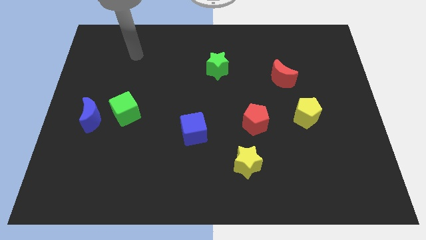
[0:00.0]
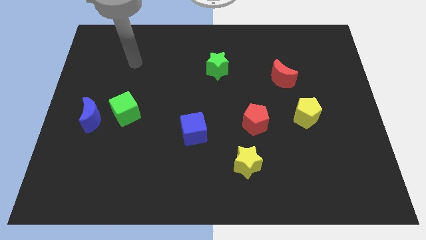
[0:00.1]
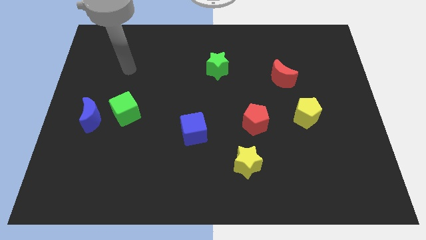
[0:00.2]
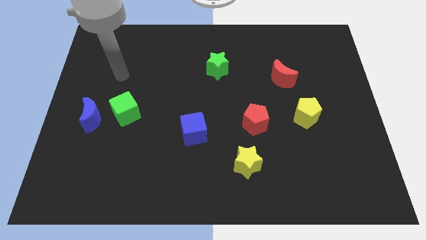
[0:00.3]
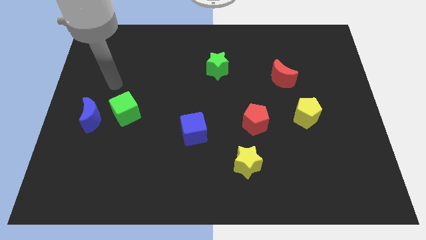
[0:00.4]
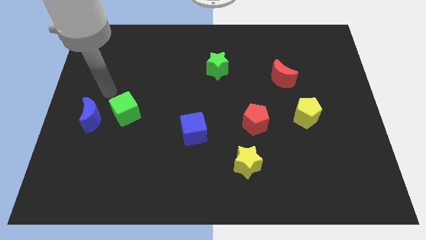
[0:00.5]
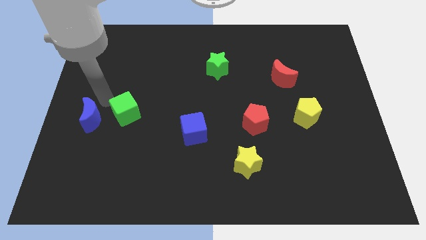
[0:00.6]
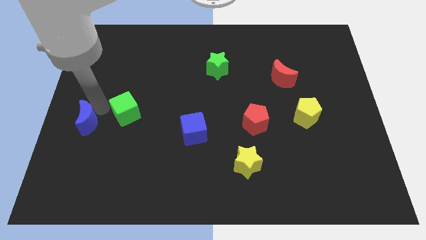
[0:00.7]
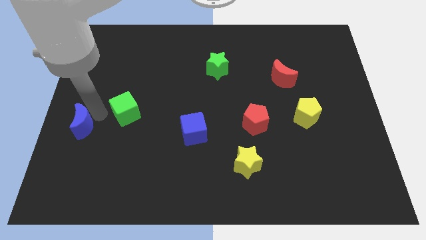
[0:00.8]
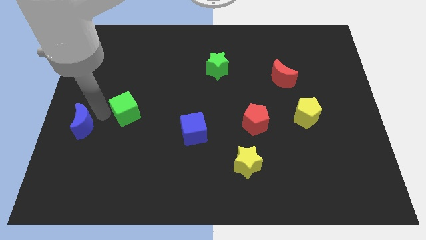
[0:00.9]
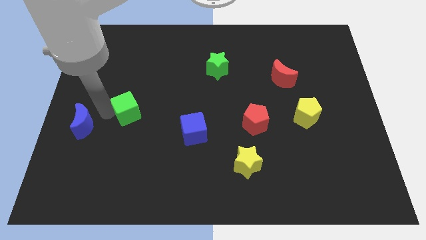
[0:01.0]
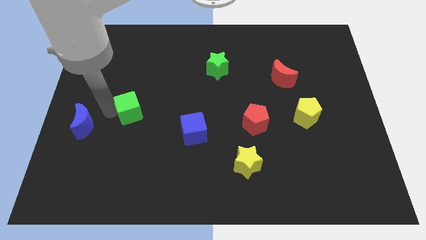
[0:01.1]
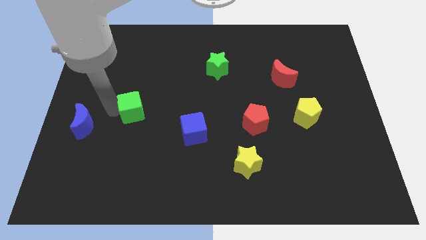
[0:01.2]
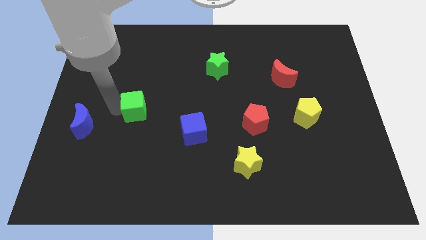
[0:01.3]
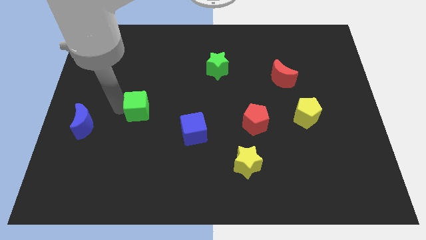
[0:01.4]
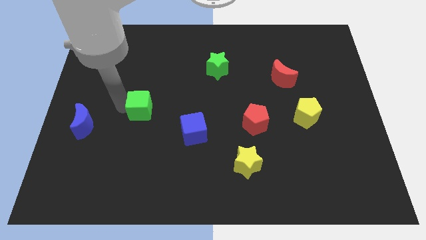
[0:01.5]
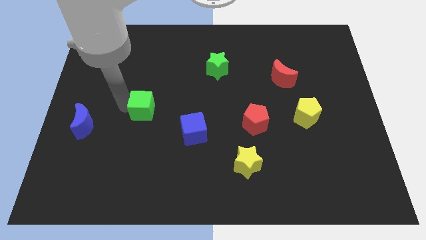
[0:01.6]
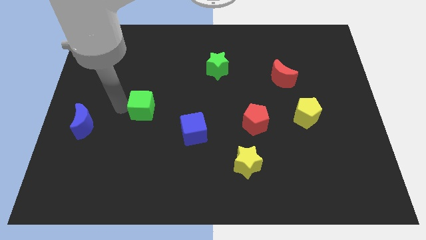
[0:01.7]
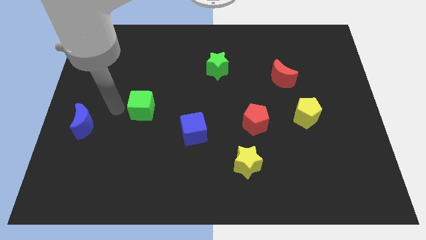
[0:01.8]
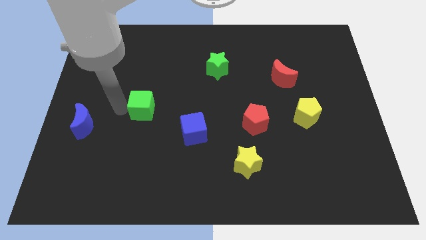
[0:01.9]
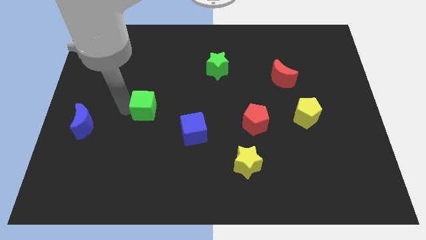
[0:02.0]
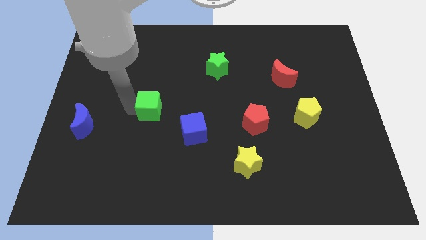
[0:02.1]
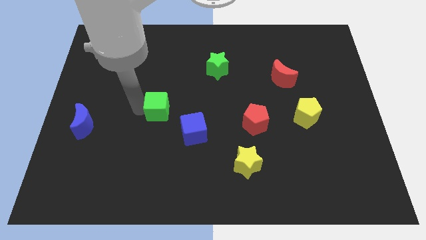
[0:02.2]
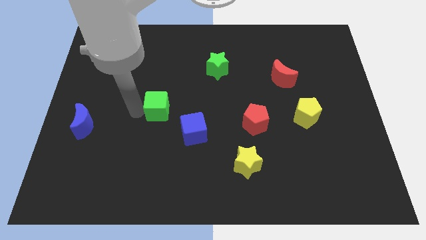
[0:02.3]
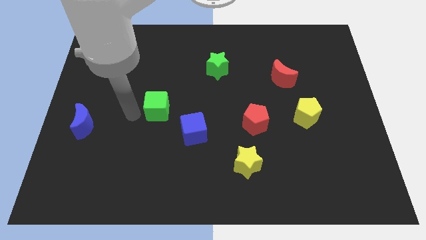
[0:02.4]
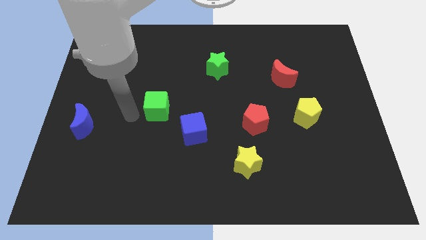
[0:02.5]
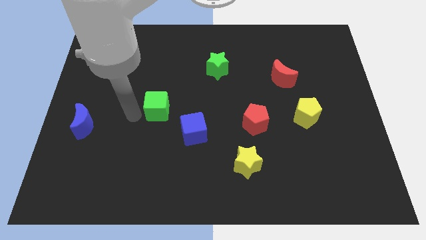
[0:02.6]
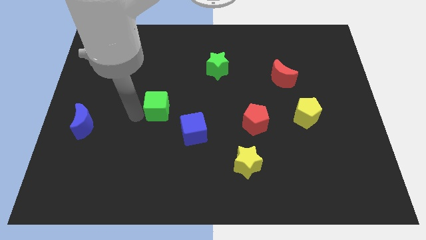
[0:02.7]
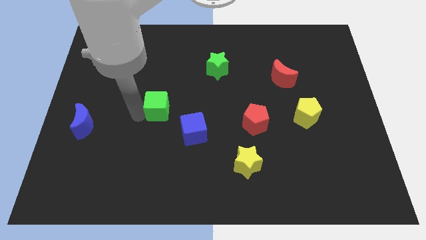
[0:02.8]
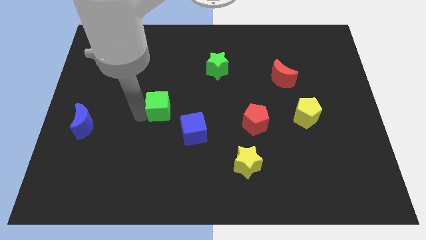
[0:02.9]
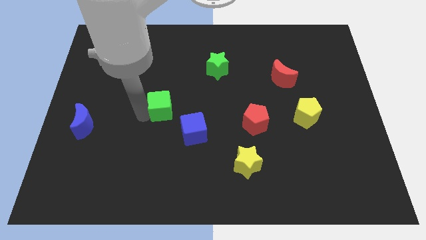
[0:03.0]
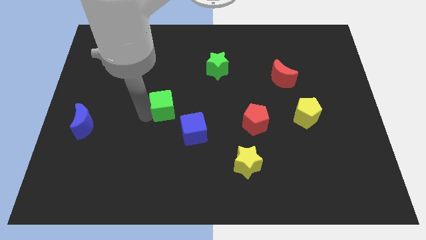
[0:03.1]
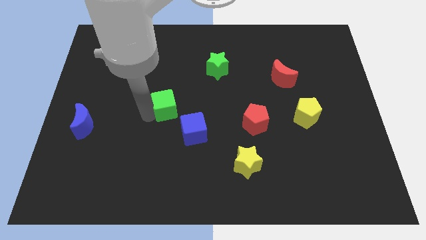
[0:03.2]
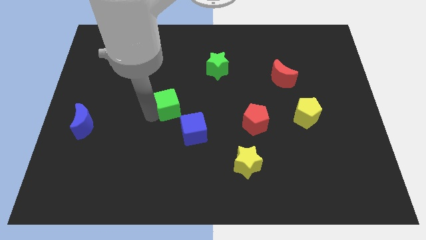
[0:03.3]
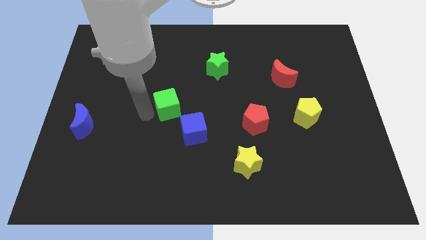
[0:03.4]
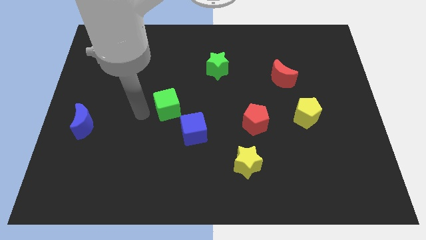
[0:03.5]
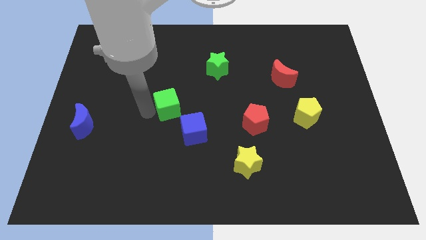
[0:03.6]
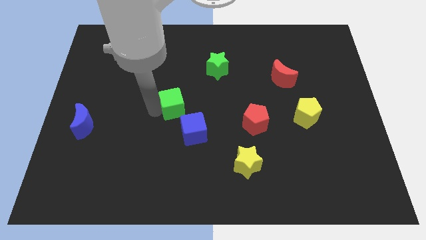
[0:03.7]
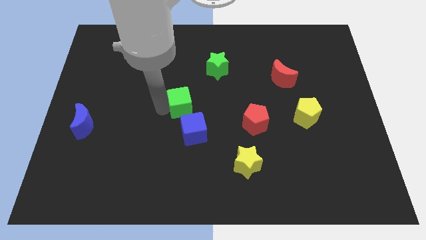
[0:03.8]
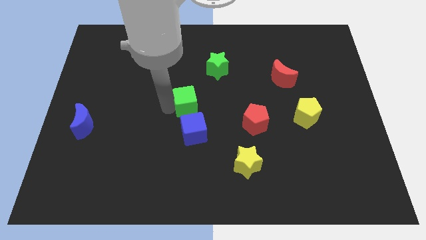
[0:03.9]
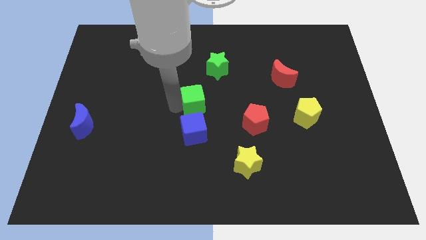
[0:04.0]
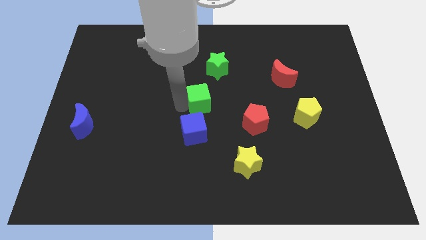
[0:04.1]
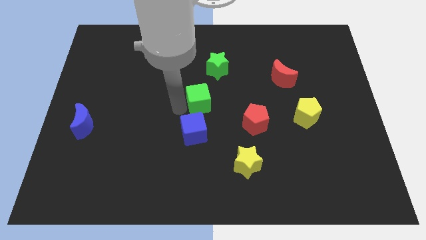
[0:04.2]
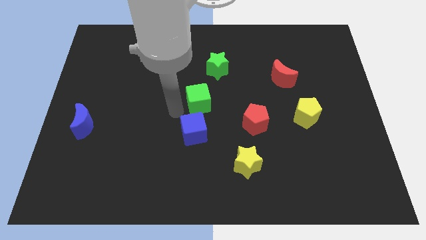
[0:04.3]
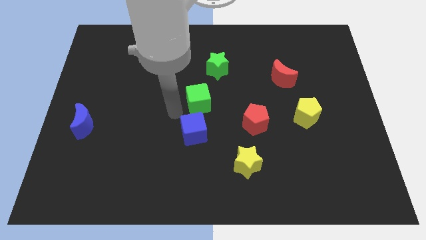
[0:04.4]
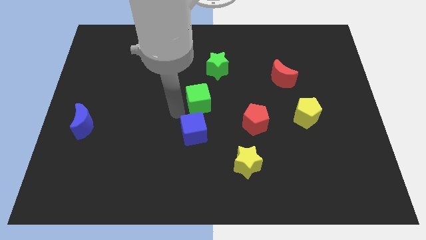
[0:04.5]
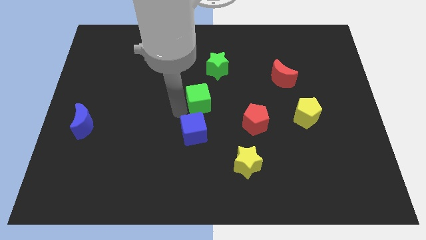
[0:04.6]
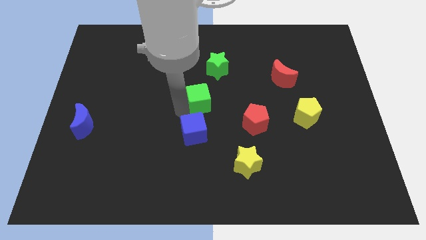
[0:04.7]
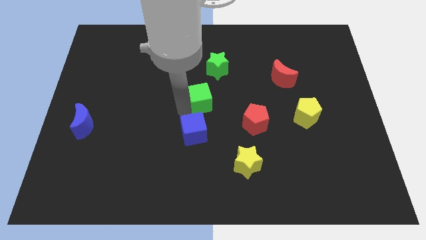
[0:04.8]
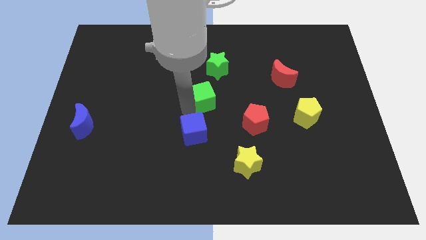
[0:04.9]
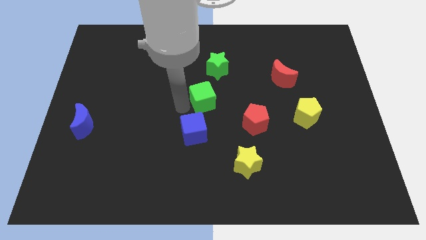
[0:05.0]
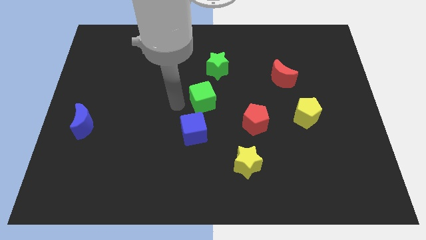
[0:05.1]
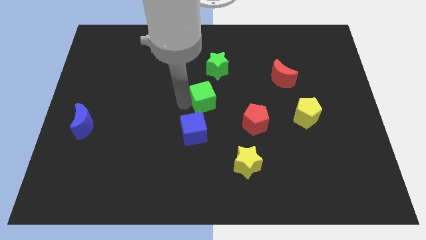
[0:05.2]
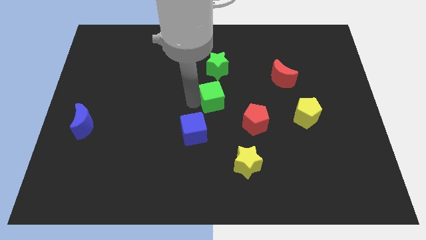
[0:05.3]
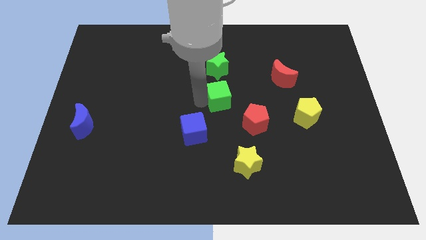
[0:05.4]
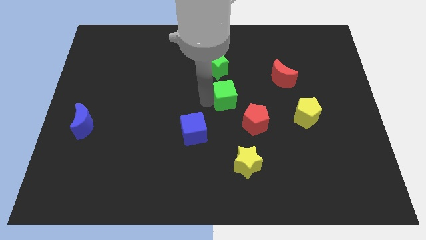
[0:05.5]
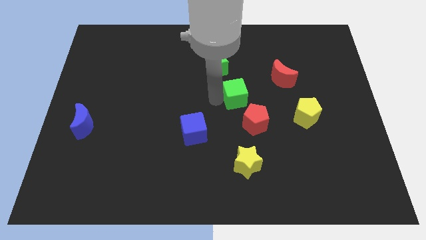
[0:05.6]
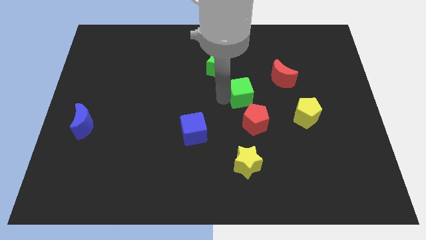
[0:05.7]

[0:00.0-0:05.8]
slide the green cube to the bottom left of the red moon

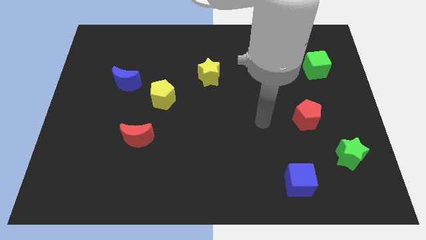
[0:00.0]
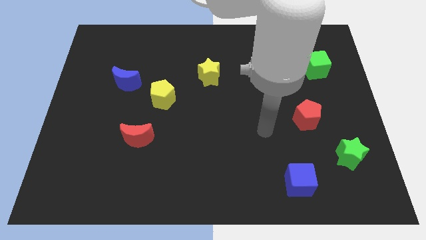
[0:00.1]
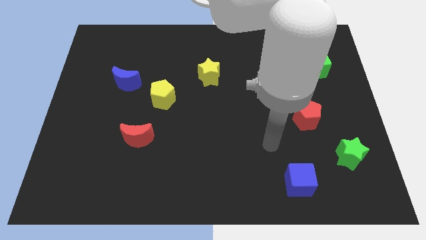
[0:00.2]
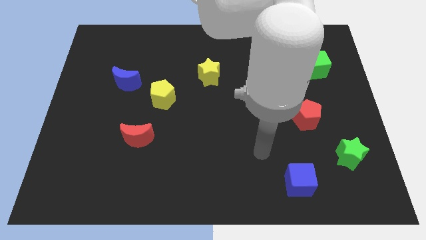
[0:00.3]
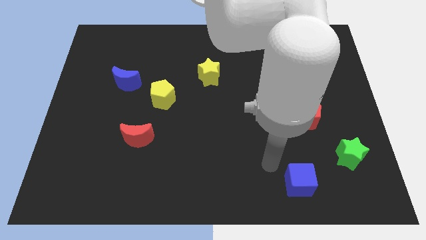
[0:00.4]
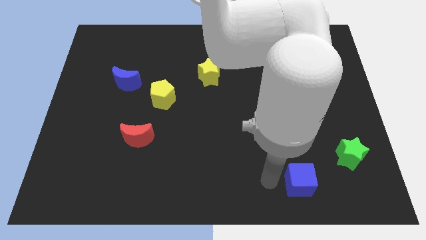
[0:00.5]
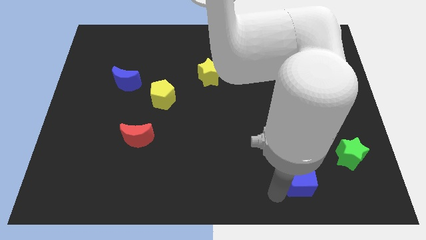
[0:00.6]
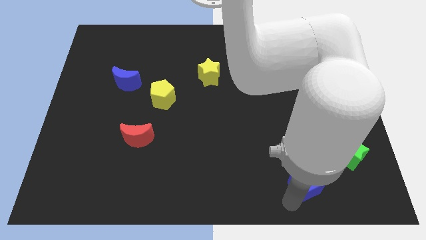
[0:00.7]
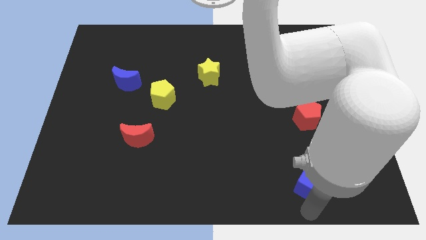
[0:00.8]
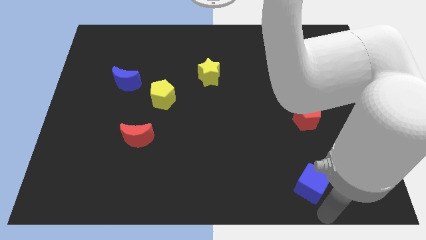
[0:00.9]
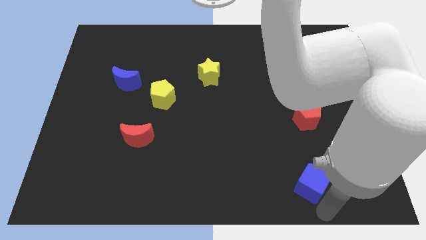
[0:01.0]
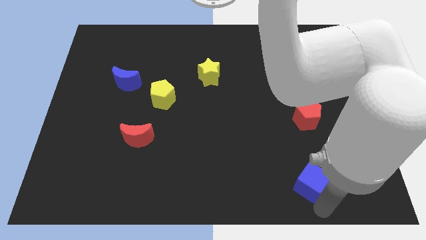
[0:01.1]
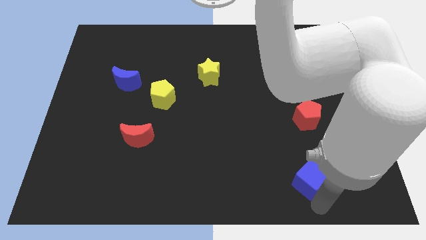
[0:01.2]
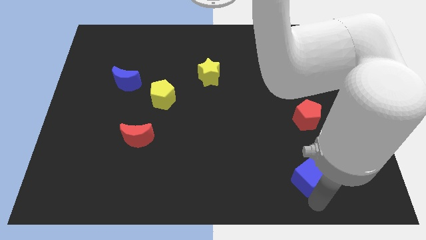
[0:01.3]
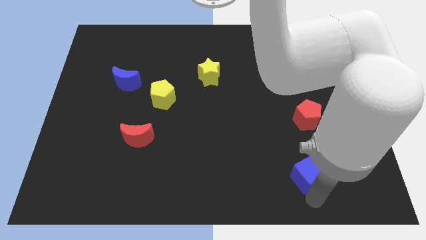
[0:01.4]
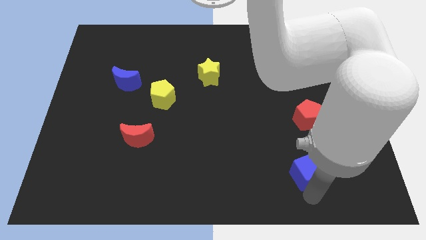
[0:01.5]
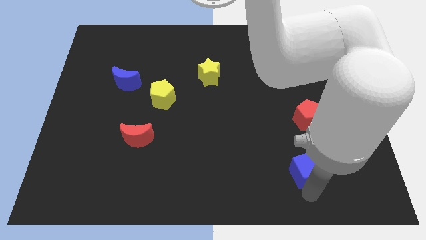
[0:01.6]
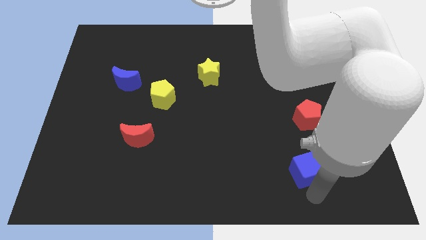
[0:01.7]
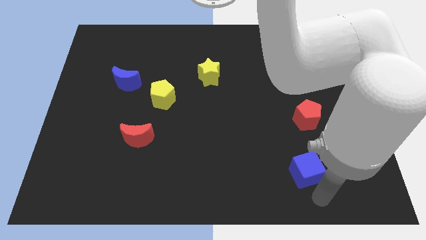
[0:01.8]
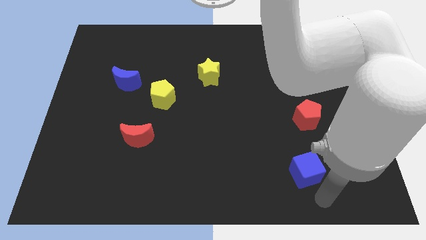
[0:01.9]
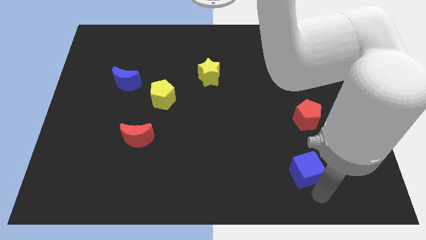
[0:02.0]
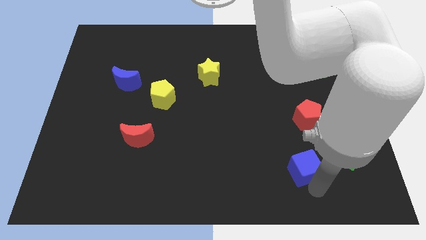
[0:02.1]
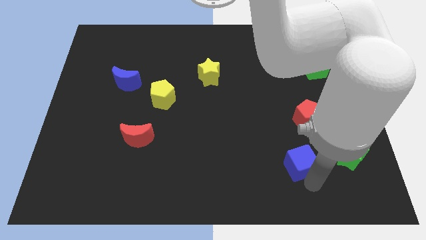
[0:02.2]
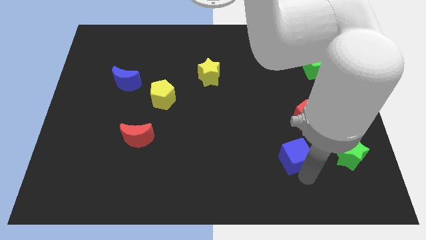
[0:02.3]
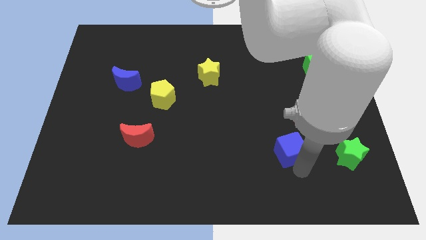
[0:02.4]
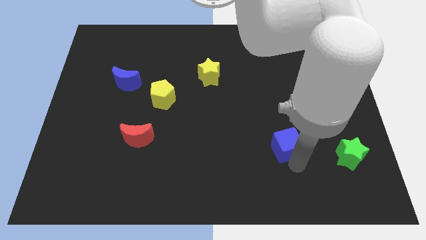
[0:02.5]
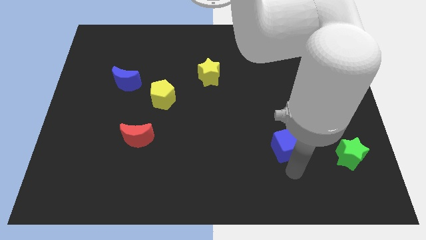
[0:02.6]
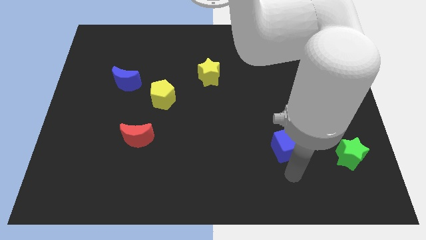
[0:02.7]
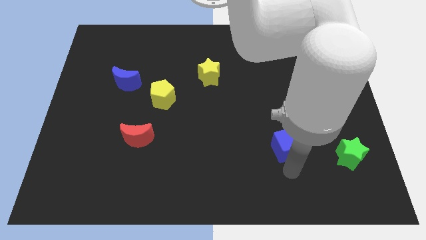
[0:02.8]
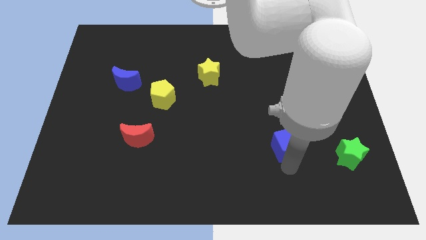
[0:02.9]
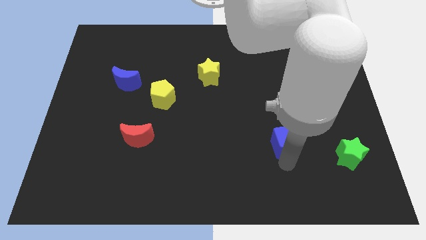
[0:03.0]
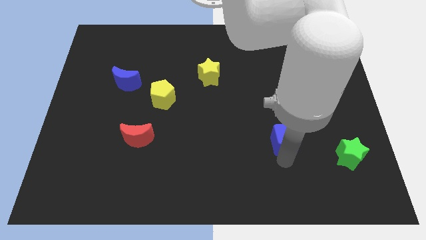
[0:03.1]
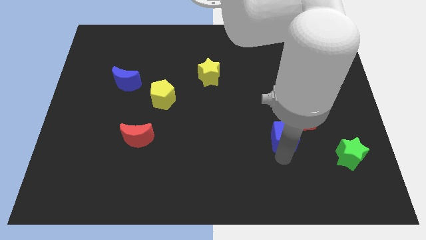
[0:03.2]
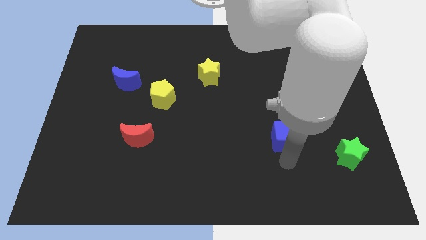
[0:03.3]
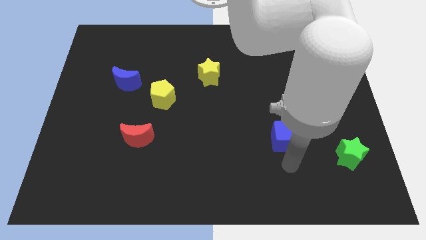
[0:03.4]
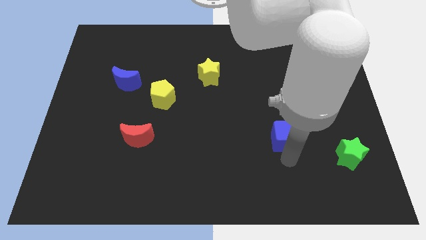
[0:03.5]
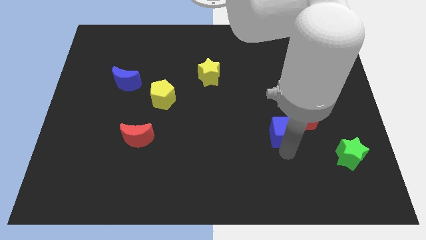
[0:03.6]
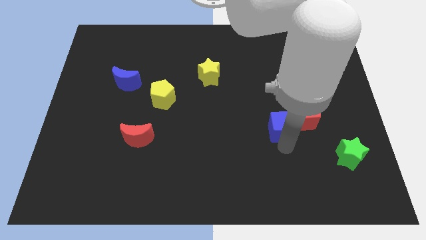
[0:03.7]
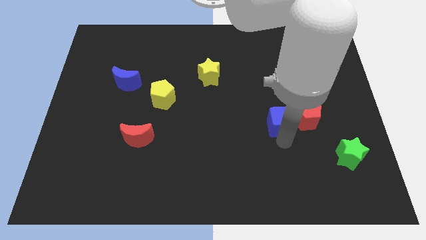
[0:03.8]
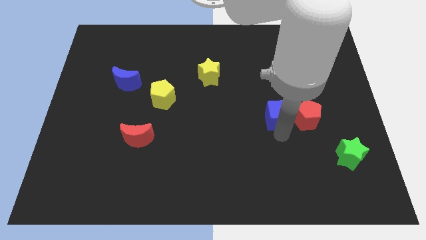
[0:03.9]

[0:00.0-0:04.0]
move the blue cube to the top left of the red pentagon
